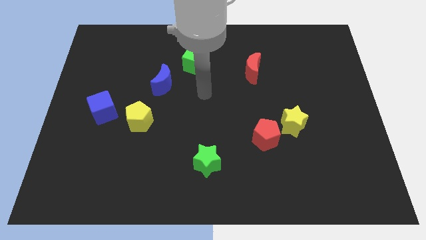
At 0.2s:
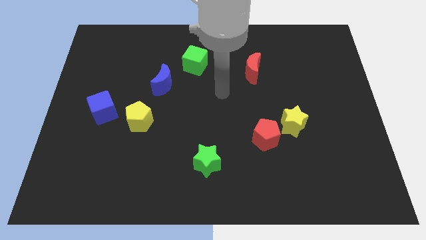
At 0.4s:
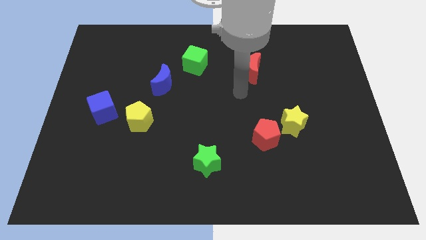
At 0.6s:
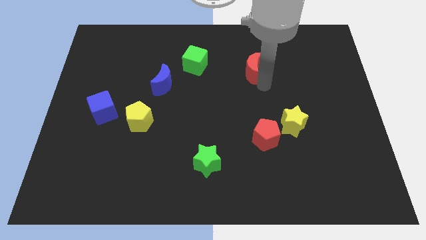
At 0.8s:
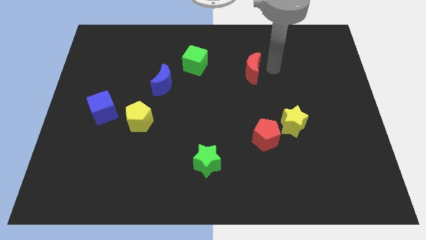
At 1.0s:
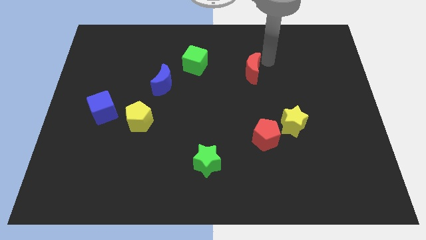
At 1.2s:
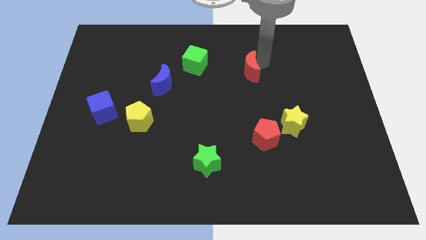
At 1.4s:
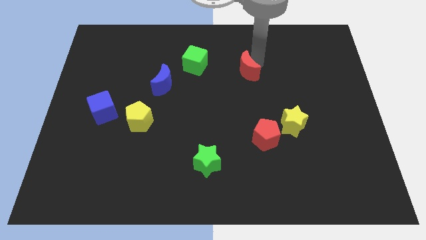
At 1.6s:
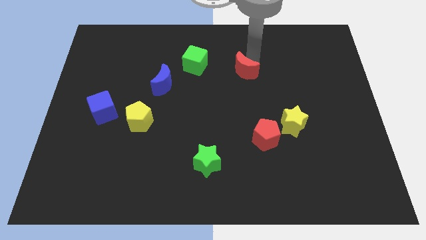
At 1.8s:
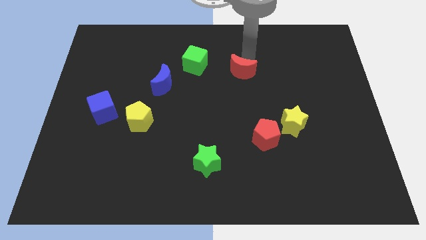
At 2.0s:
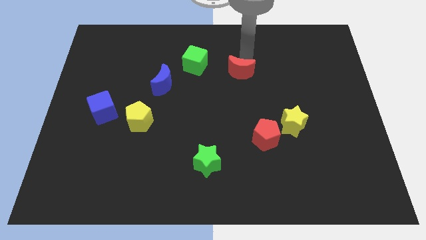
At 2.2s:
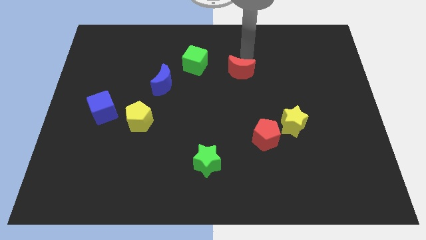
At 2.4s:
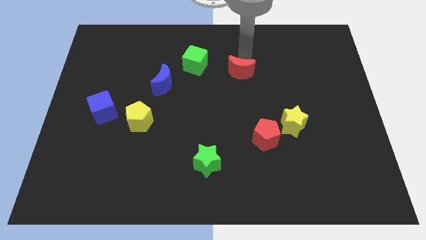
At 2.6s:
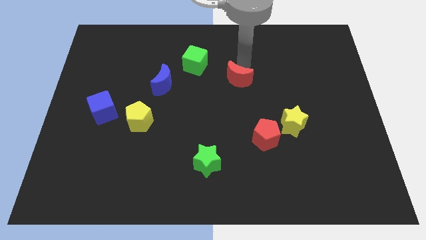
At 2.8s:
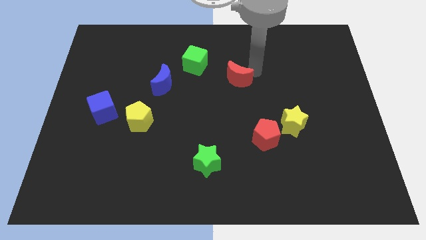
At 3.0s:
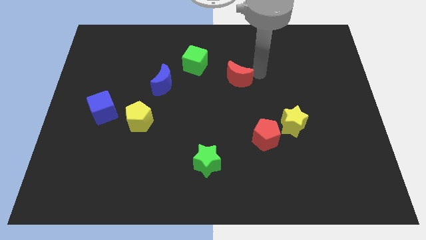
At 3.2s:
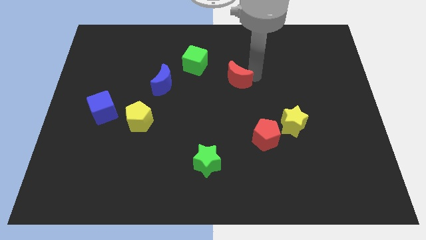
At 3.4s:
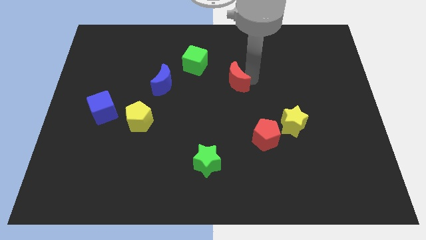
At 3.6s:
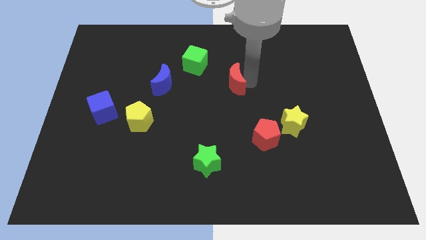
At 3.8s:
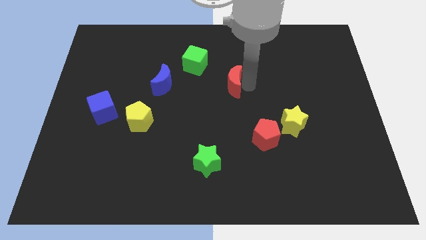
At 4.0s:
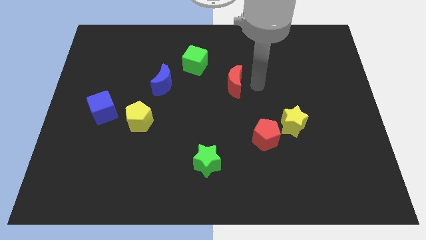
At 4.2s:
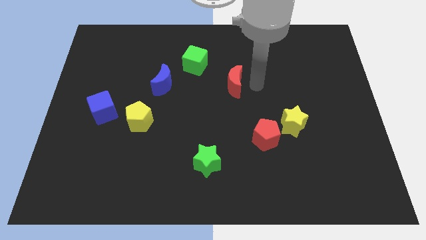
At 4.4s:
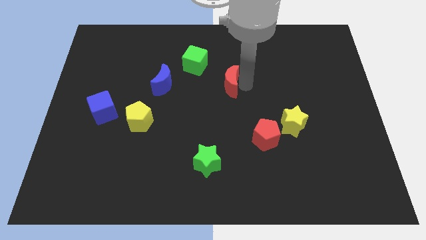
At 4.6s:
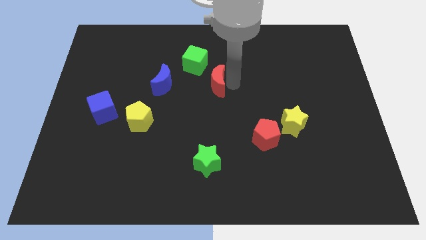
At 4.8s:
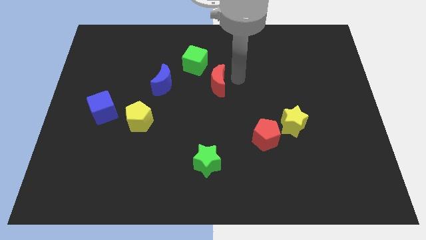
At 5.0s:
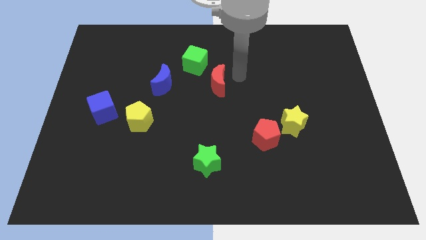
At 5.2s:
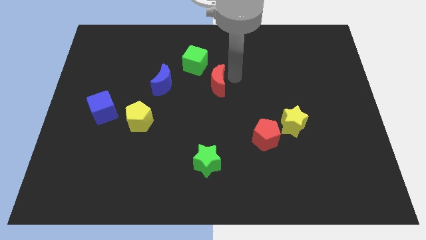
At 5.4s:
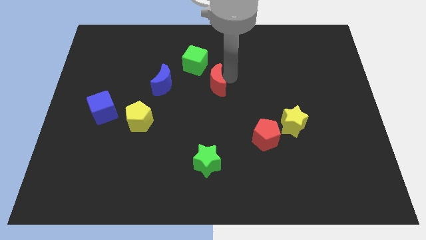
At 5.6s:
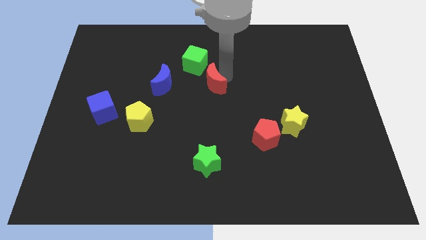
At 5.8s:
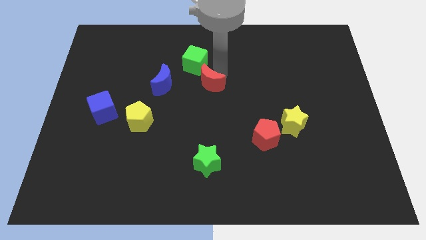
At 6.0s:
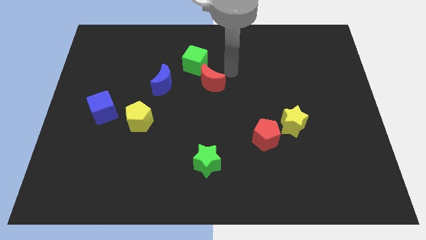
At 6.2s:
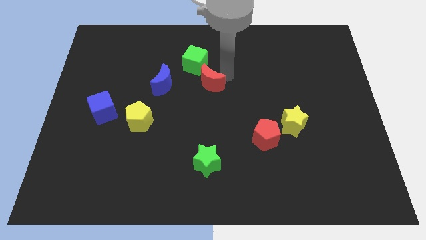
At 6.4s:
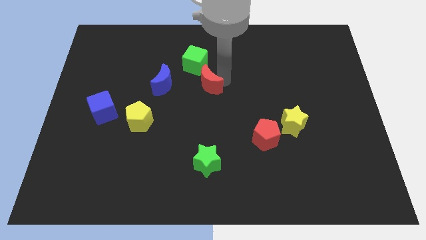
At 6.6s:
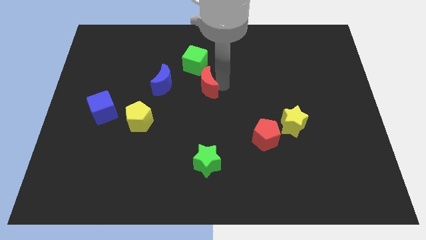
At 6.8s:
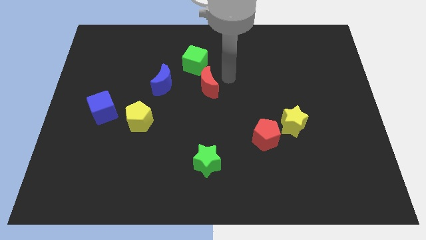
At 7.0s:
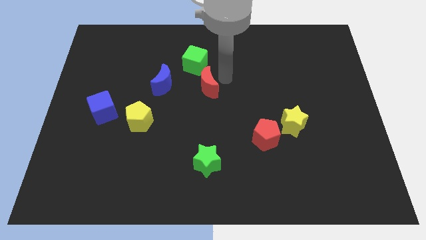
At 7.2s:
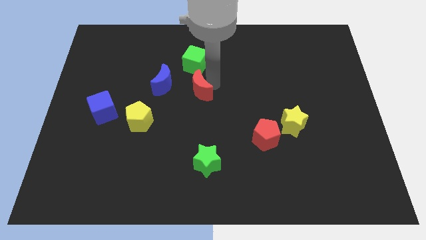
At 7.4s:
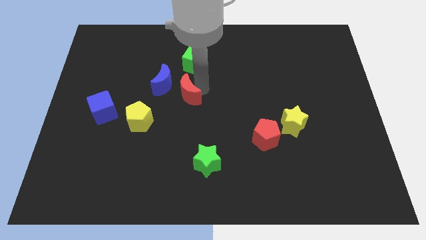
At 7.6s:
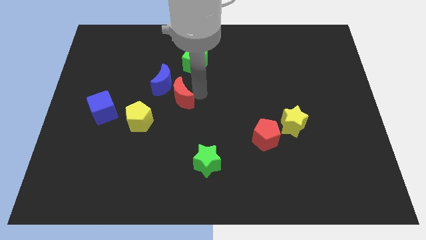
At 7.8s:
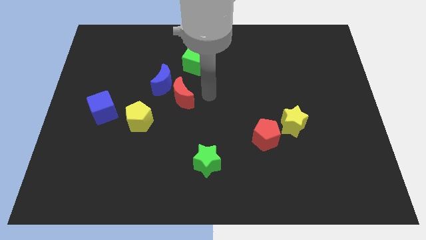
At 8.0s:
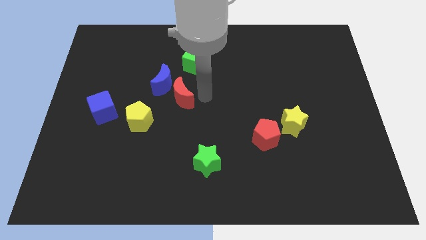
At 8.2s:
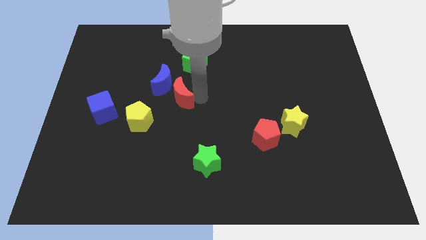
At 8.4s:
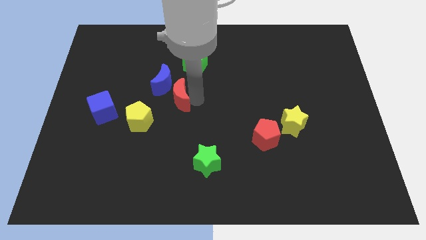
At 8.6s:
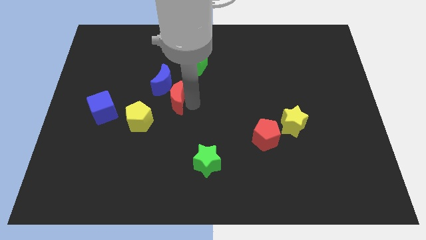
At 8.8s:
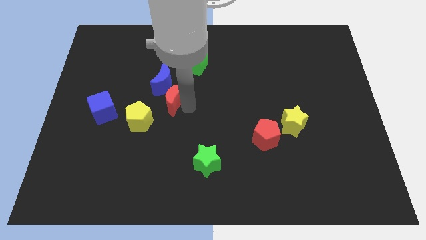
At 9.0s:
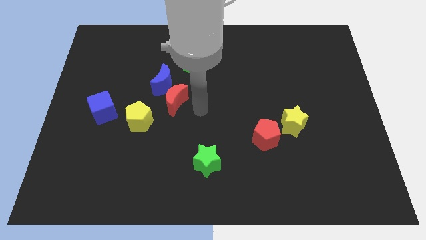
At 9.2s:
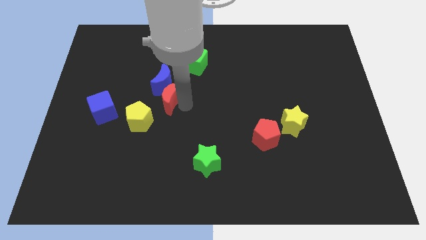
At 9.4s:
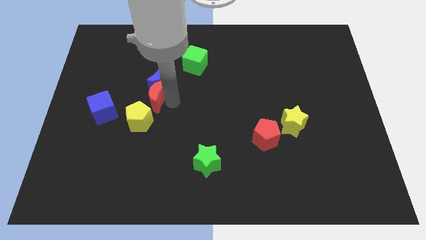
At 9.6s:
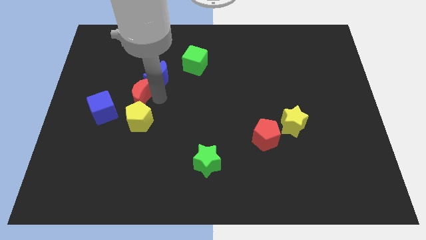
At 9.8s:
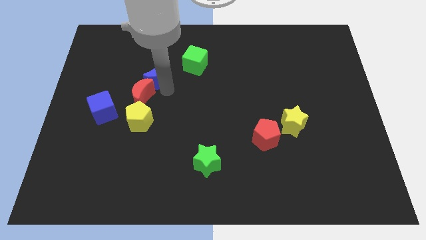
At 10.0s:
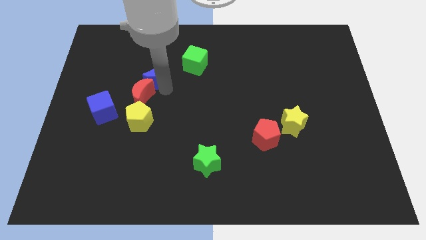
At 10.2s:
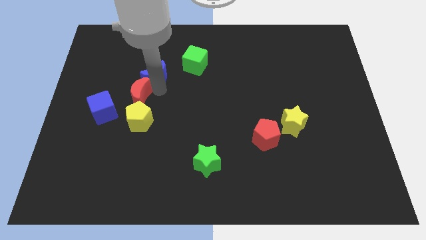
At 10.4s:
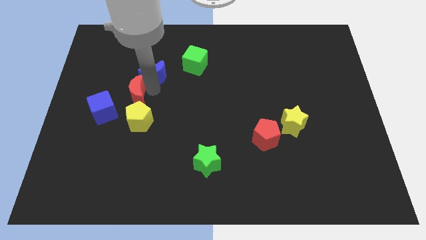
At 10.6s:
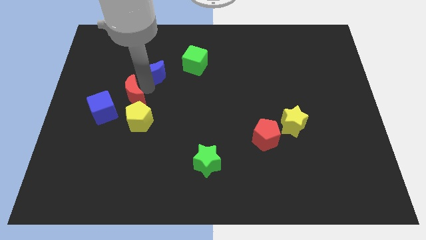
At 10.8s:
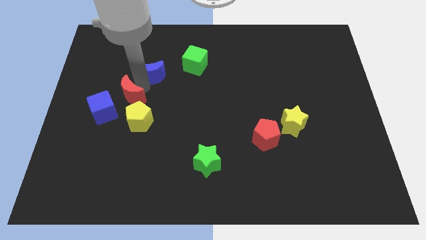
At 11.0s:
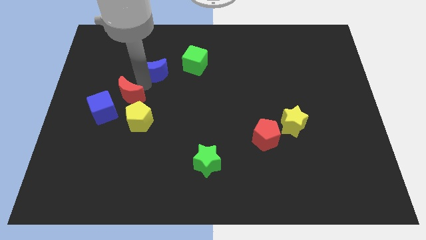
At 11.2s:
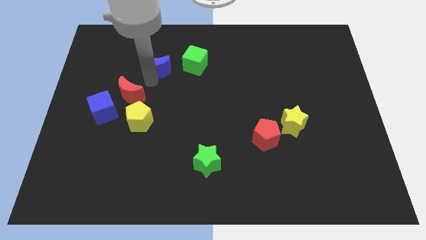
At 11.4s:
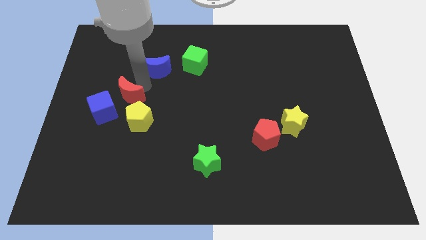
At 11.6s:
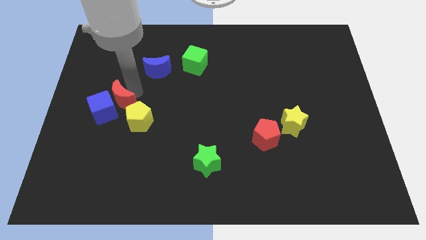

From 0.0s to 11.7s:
put the red moon to the blue cube
